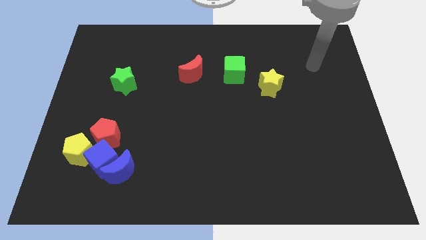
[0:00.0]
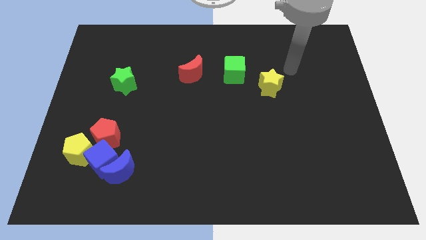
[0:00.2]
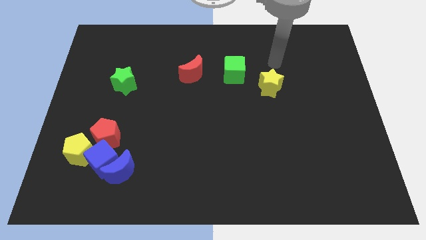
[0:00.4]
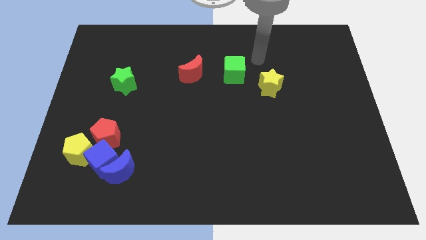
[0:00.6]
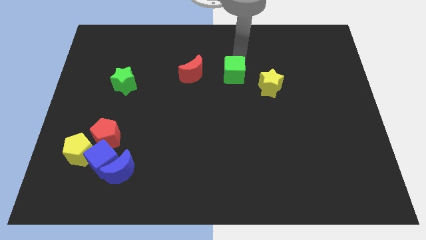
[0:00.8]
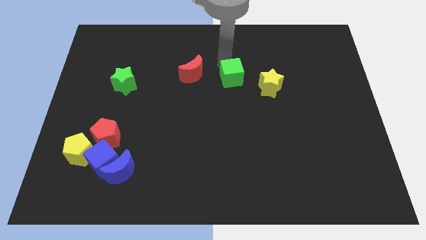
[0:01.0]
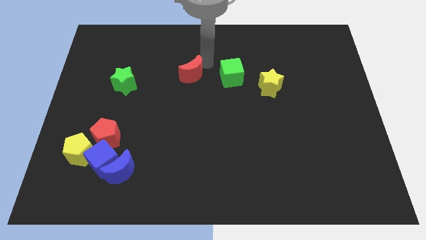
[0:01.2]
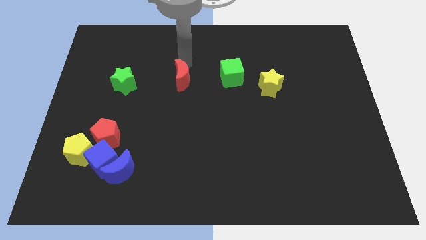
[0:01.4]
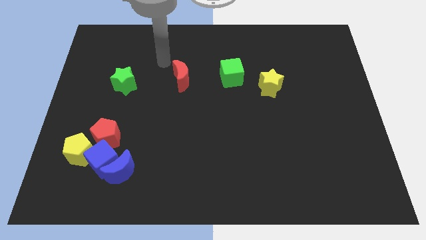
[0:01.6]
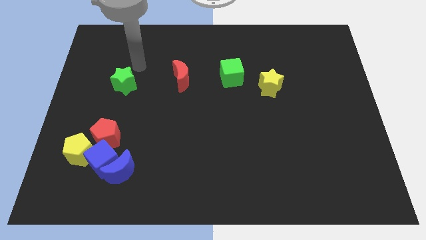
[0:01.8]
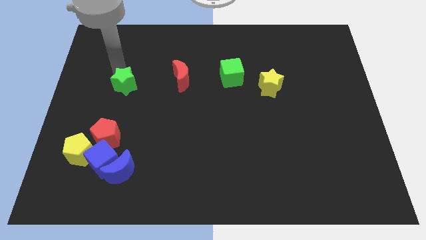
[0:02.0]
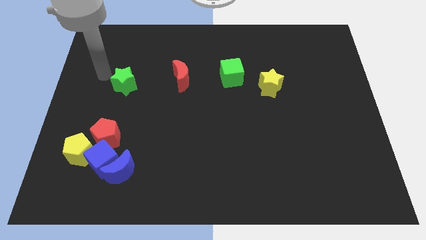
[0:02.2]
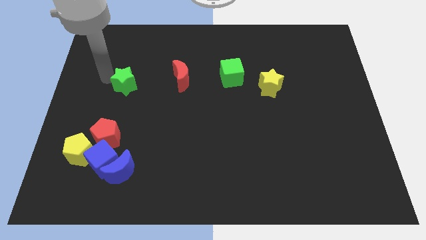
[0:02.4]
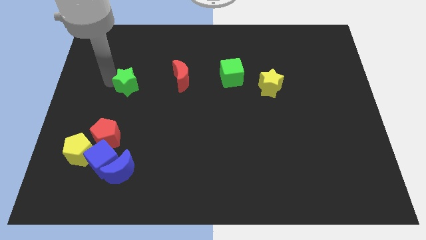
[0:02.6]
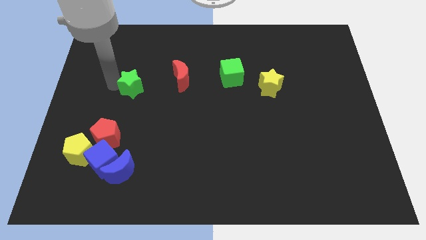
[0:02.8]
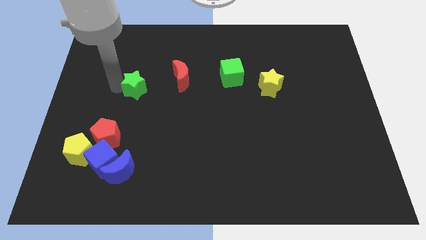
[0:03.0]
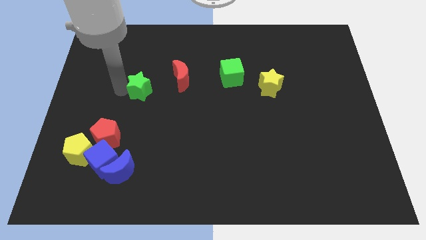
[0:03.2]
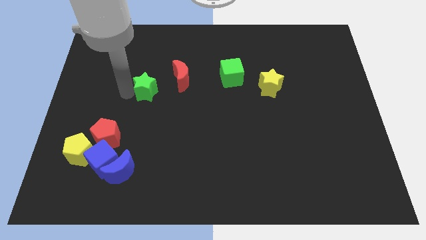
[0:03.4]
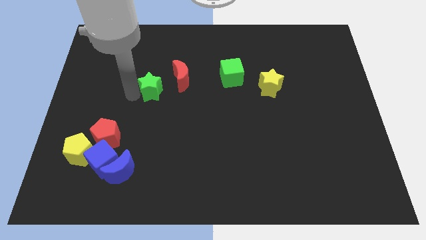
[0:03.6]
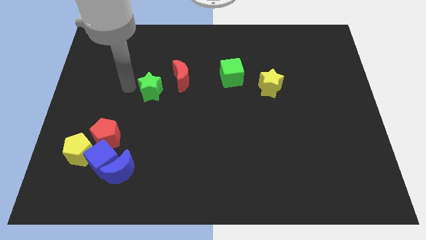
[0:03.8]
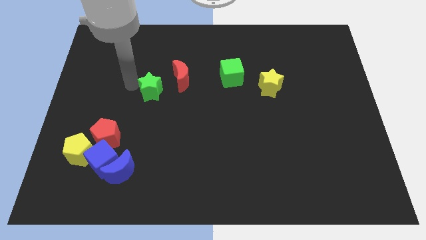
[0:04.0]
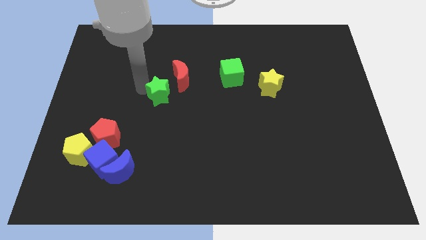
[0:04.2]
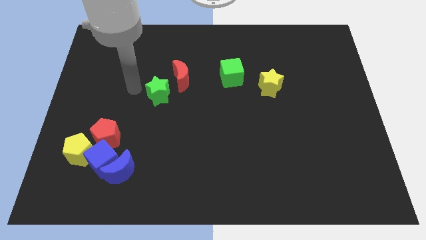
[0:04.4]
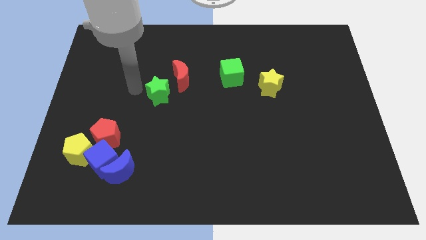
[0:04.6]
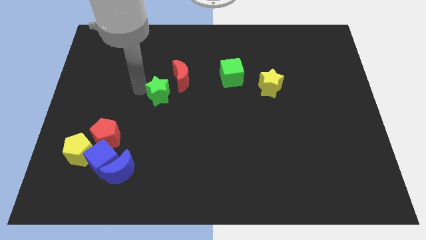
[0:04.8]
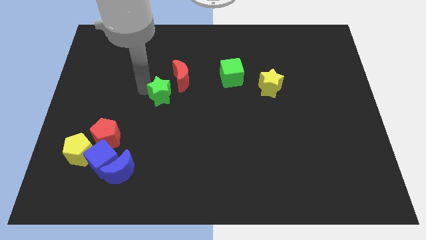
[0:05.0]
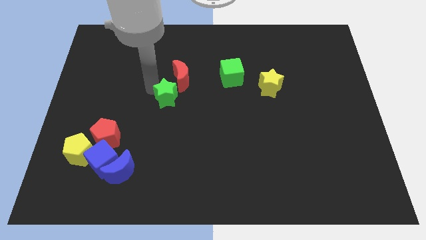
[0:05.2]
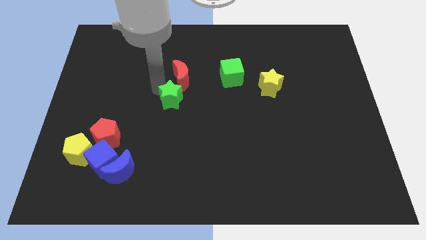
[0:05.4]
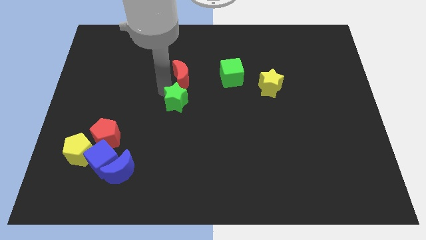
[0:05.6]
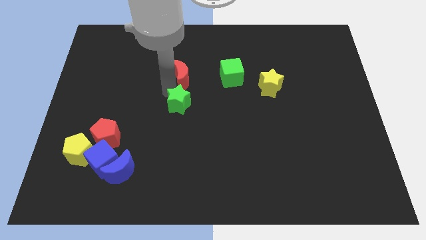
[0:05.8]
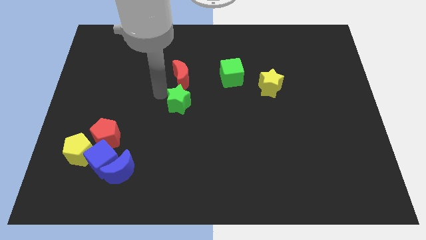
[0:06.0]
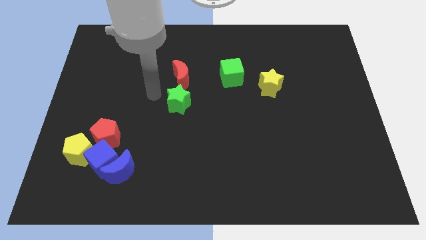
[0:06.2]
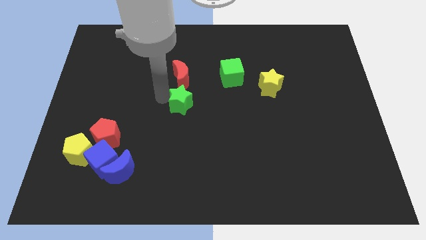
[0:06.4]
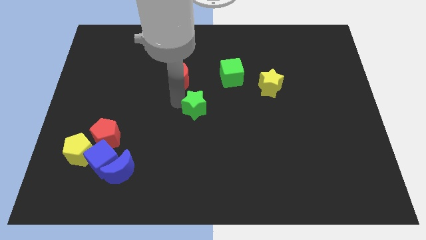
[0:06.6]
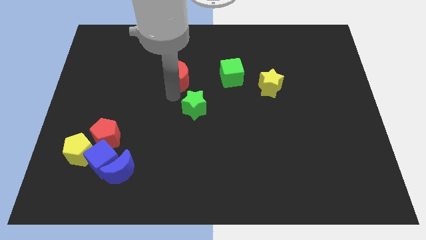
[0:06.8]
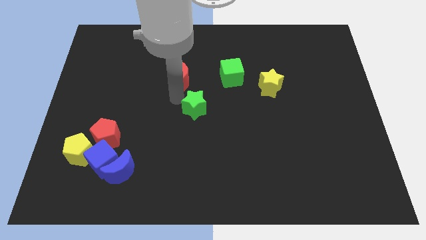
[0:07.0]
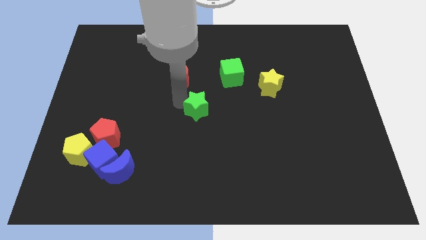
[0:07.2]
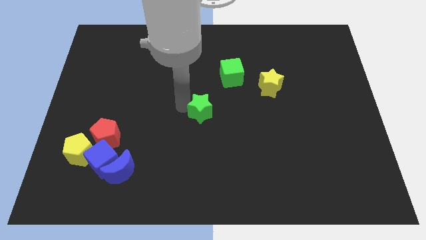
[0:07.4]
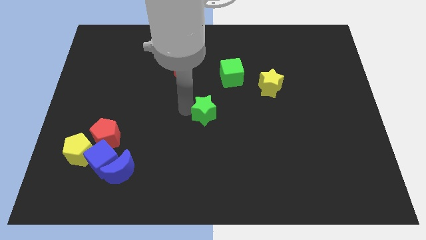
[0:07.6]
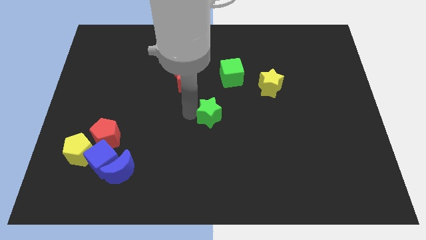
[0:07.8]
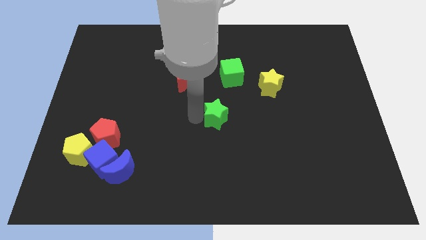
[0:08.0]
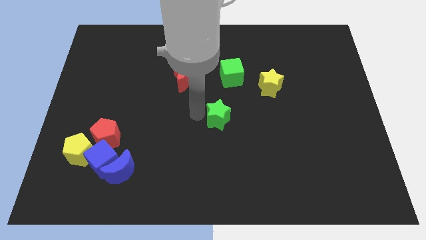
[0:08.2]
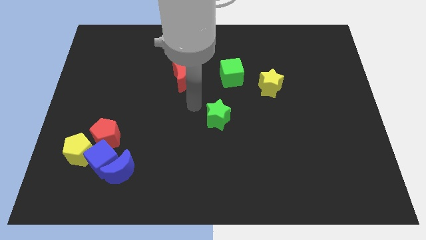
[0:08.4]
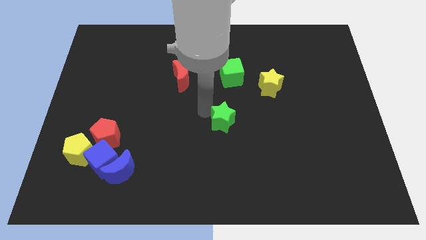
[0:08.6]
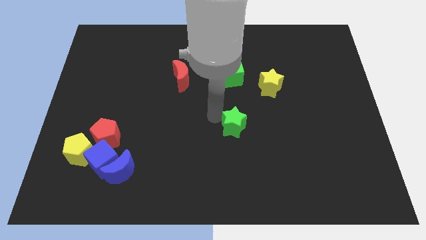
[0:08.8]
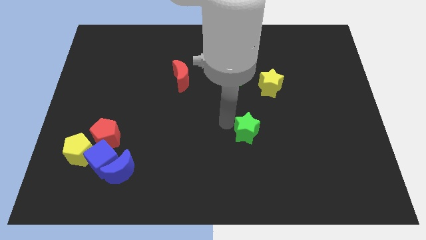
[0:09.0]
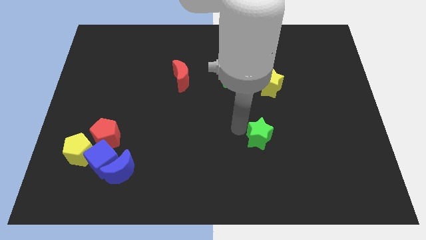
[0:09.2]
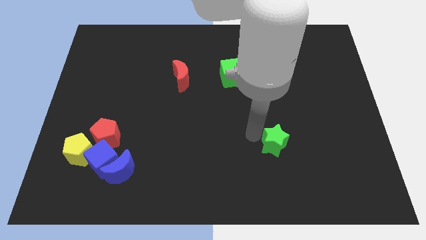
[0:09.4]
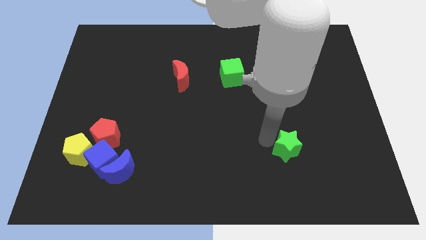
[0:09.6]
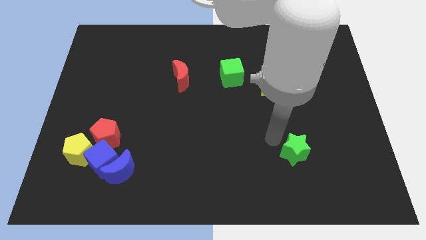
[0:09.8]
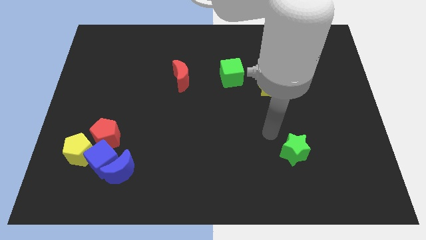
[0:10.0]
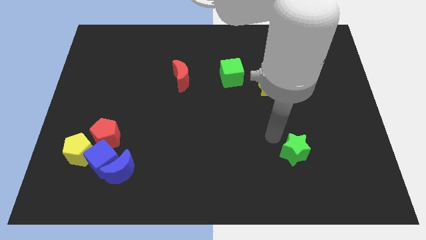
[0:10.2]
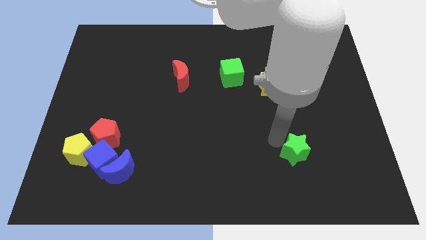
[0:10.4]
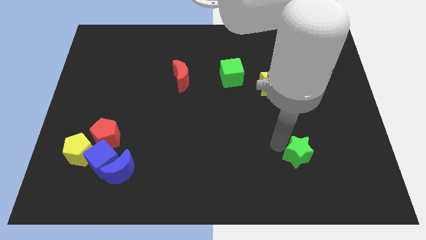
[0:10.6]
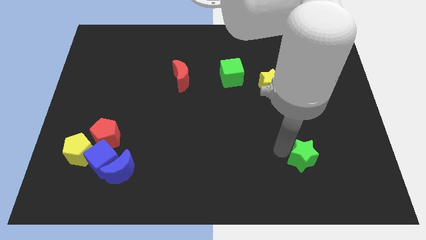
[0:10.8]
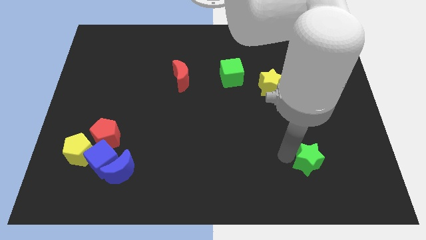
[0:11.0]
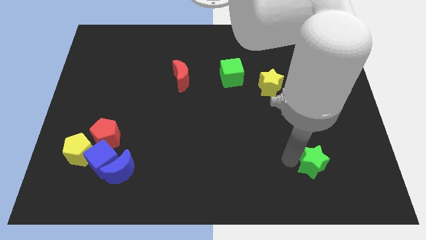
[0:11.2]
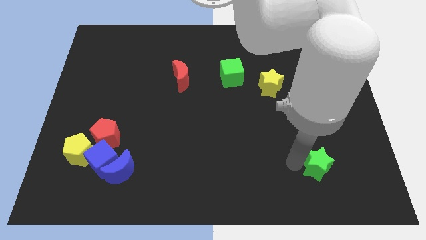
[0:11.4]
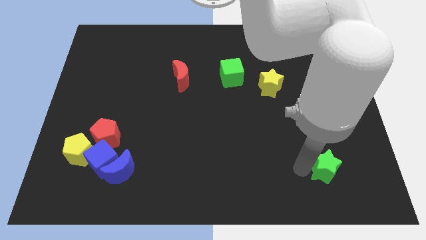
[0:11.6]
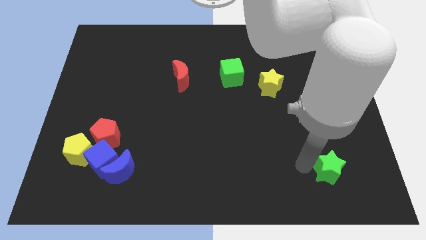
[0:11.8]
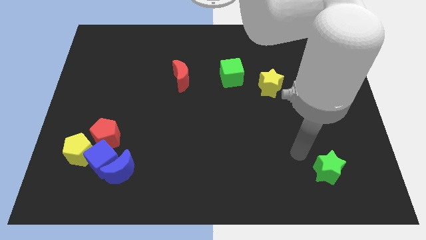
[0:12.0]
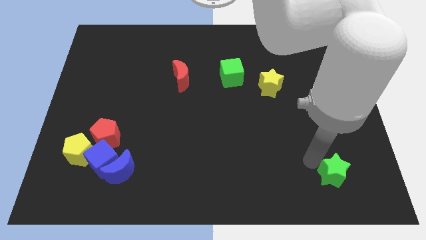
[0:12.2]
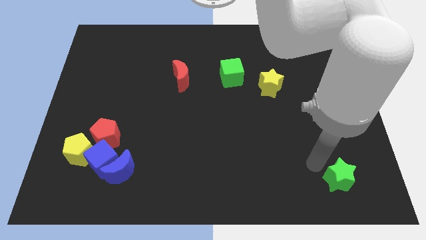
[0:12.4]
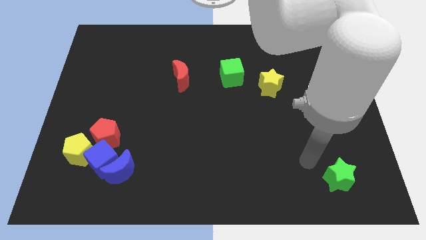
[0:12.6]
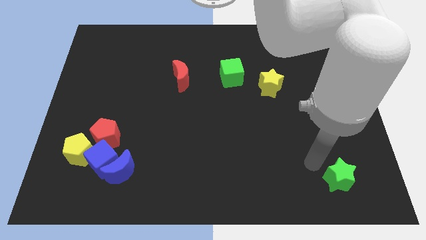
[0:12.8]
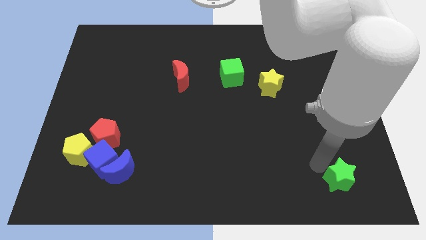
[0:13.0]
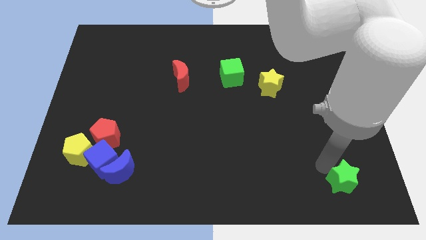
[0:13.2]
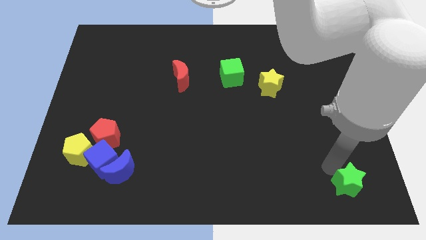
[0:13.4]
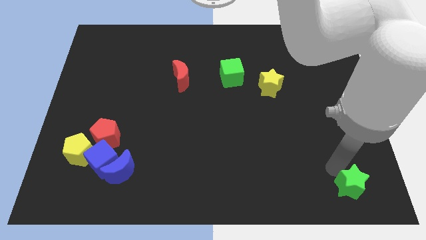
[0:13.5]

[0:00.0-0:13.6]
slide the green star to the bottom right
